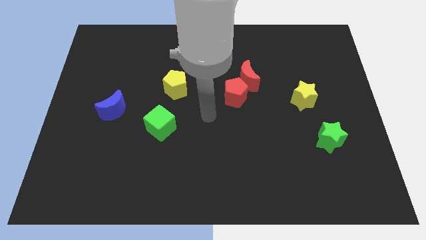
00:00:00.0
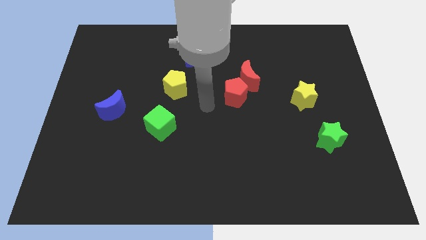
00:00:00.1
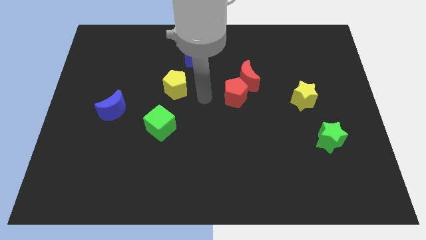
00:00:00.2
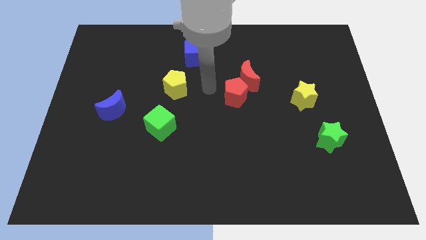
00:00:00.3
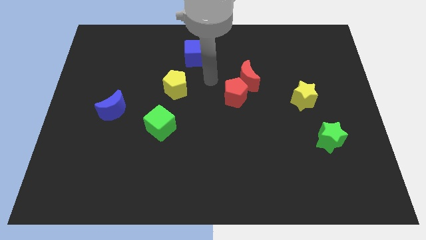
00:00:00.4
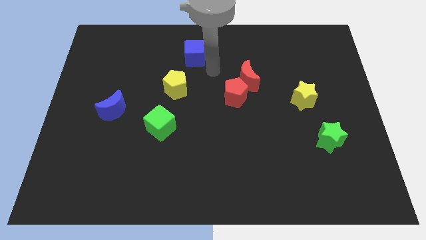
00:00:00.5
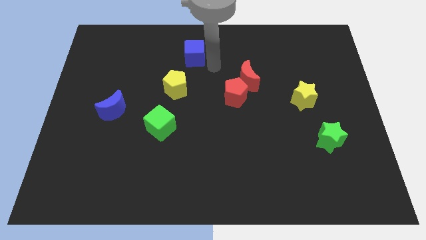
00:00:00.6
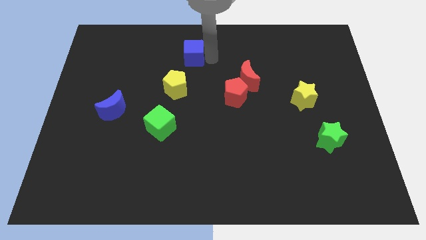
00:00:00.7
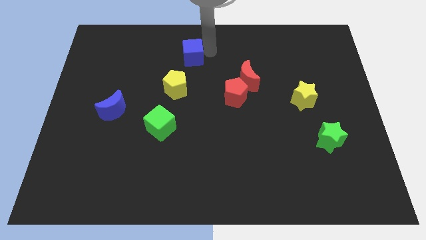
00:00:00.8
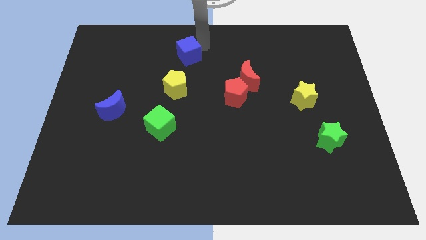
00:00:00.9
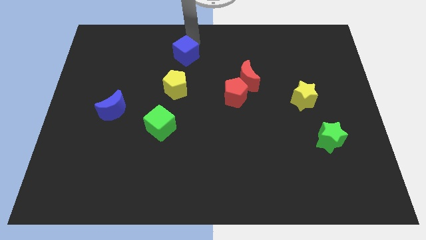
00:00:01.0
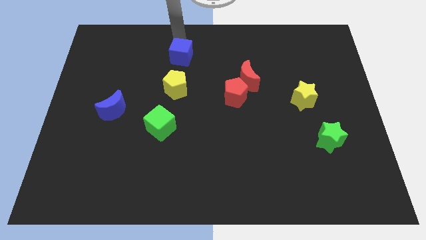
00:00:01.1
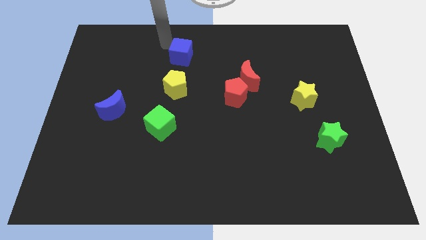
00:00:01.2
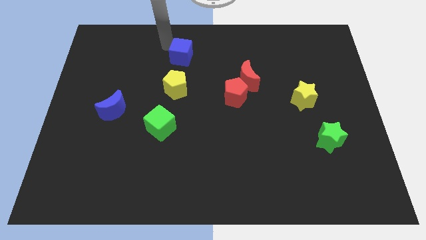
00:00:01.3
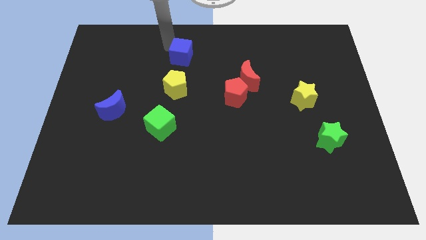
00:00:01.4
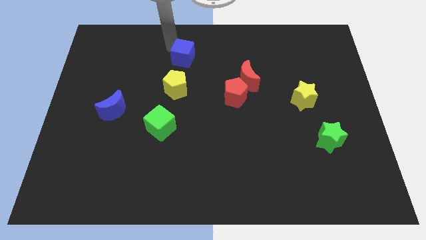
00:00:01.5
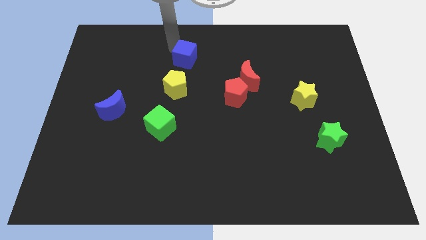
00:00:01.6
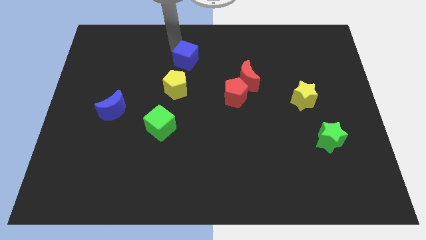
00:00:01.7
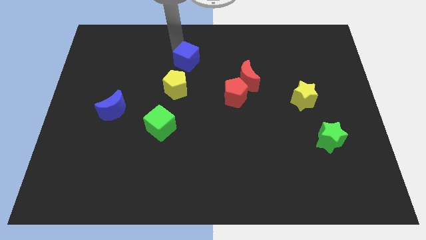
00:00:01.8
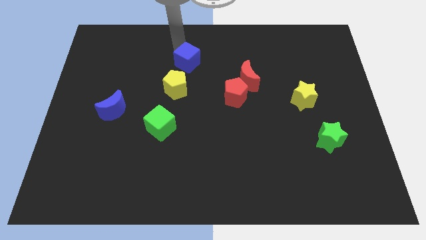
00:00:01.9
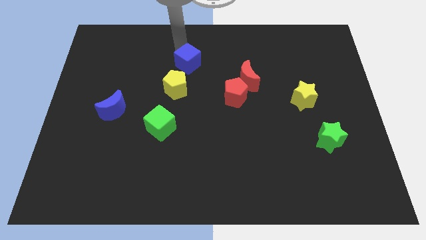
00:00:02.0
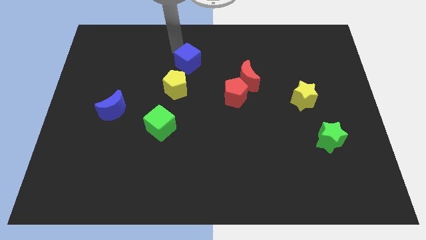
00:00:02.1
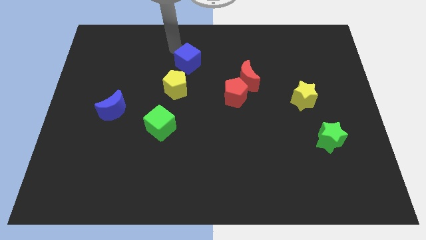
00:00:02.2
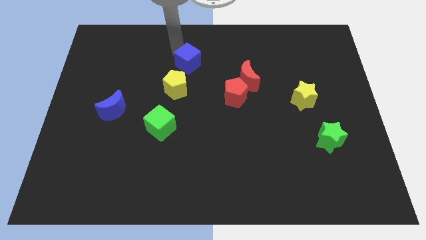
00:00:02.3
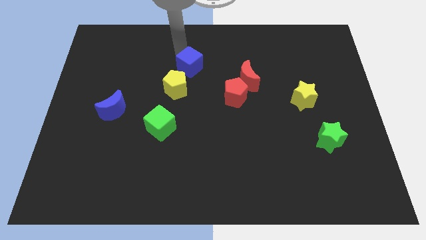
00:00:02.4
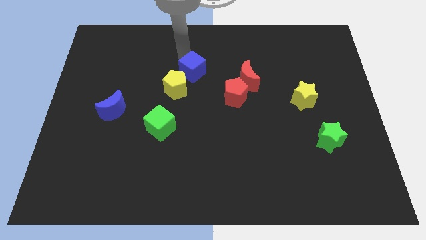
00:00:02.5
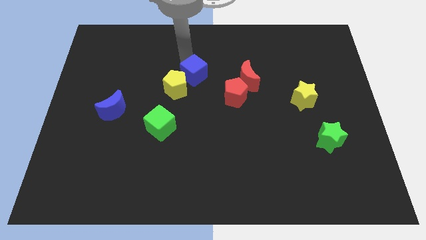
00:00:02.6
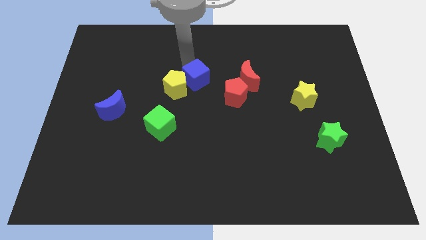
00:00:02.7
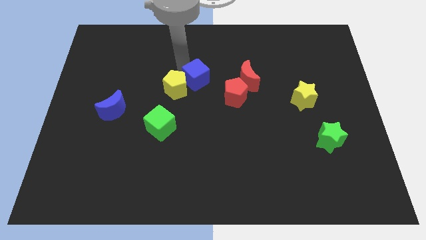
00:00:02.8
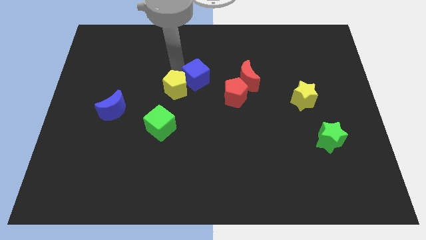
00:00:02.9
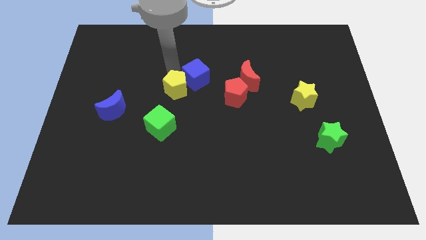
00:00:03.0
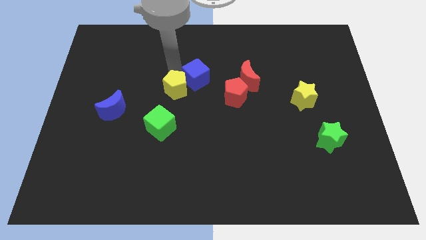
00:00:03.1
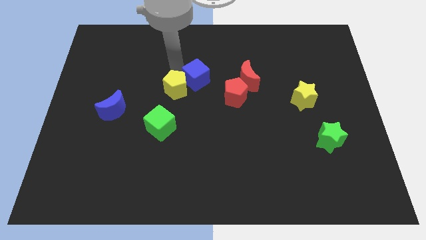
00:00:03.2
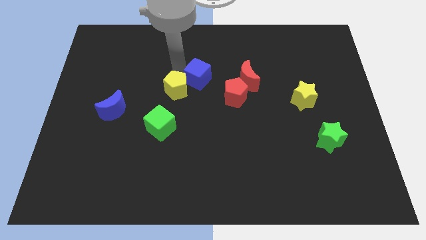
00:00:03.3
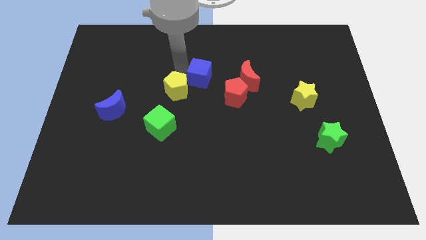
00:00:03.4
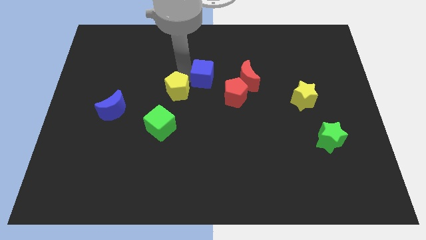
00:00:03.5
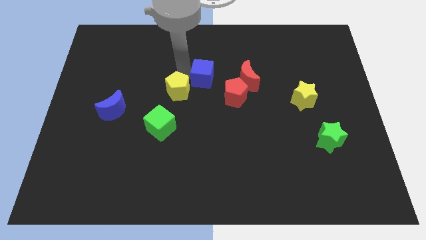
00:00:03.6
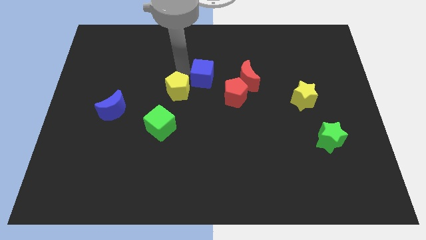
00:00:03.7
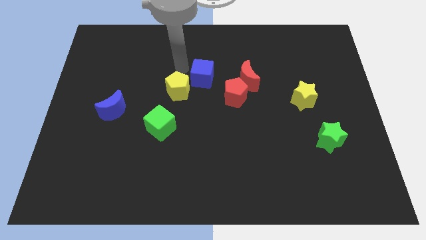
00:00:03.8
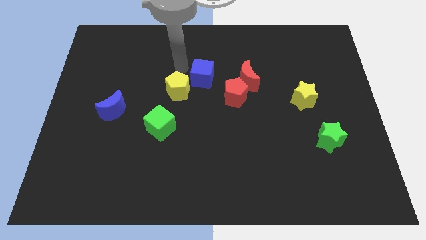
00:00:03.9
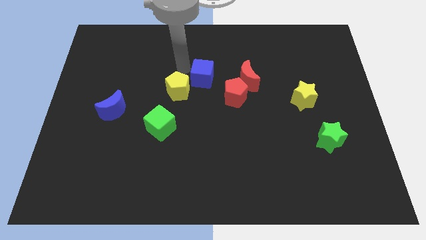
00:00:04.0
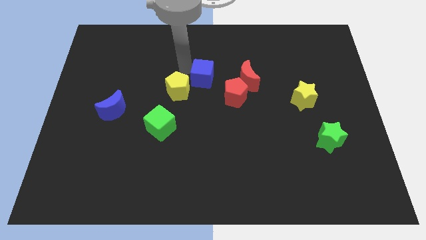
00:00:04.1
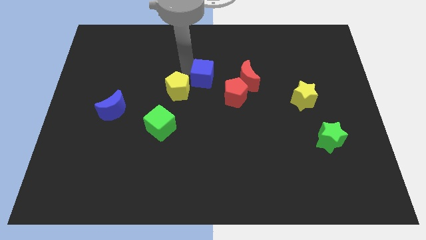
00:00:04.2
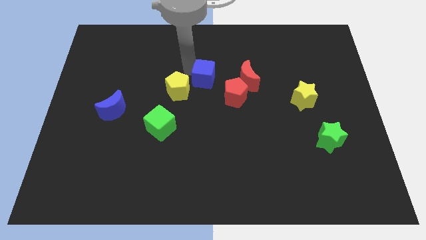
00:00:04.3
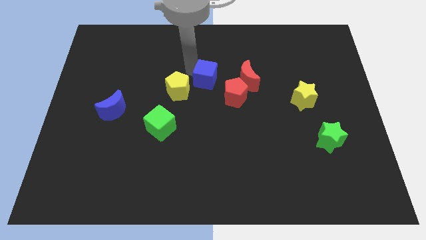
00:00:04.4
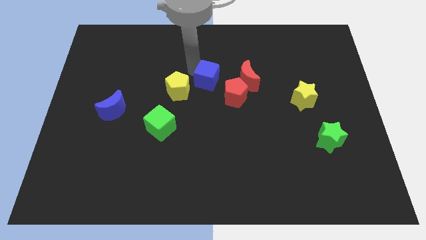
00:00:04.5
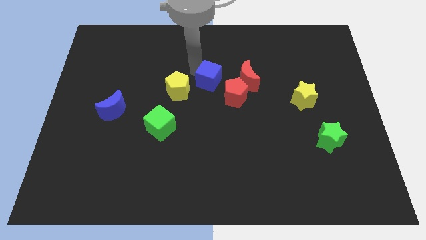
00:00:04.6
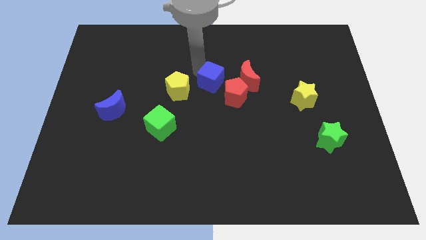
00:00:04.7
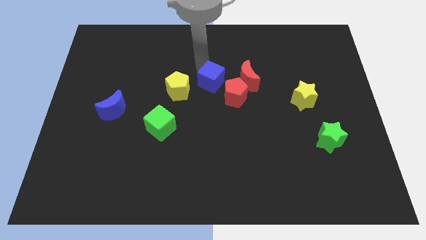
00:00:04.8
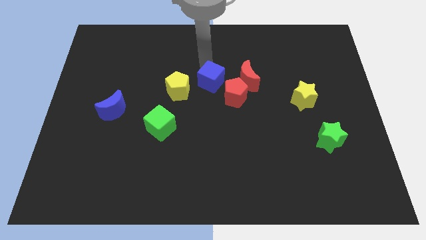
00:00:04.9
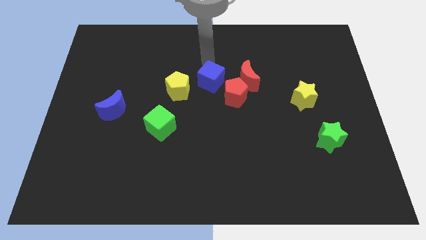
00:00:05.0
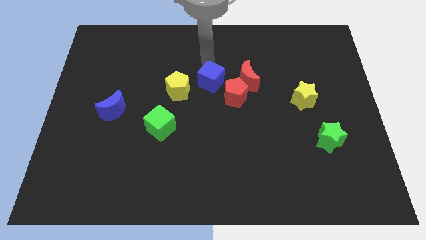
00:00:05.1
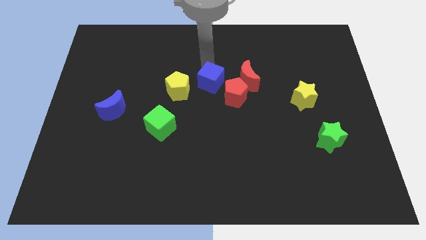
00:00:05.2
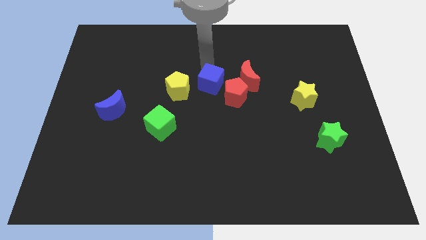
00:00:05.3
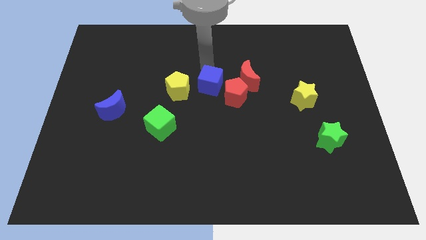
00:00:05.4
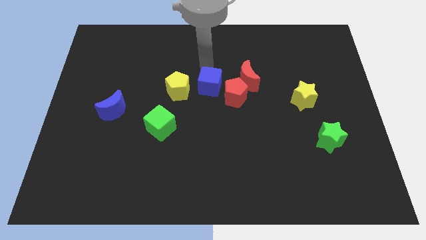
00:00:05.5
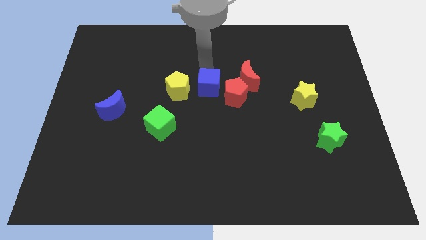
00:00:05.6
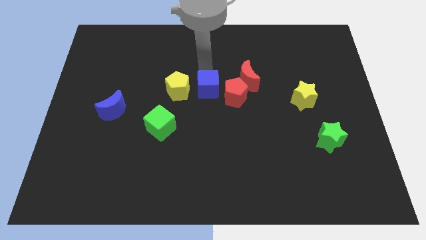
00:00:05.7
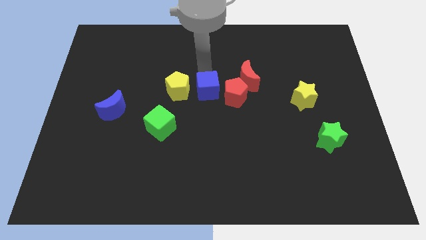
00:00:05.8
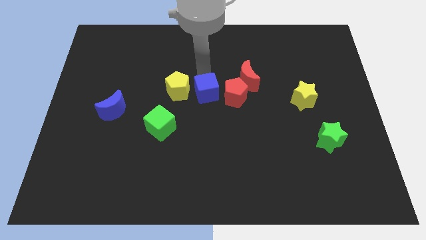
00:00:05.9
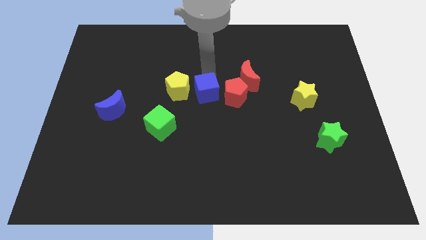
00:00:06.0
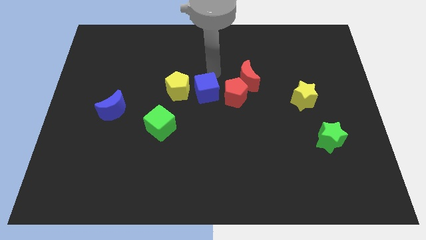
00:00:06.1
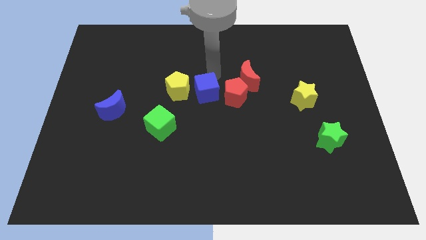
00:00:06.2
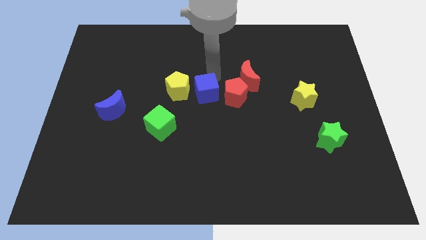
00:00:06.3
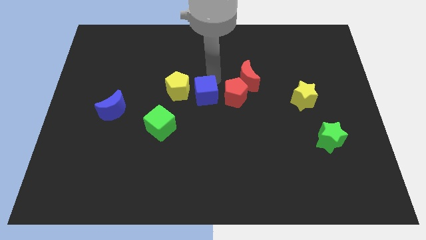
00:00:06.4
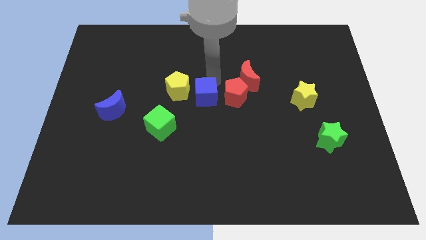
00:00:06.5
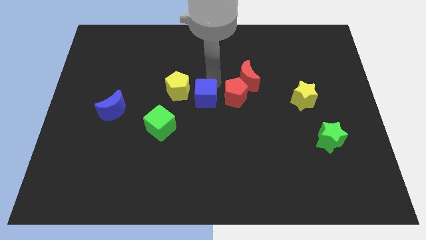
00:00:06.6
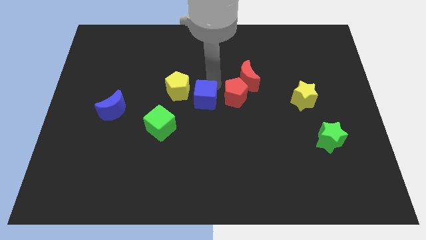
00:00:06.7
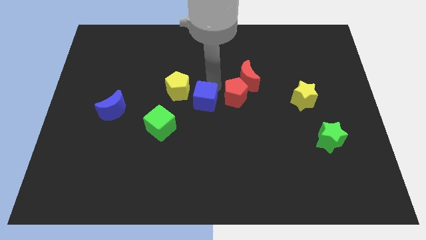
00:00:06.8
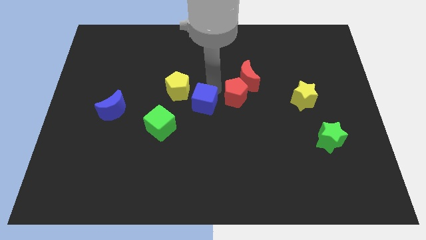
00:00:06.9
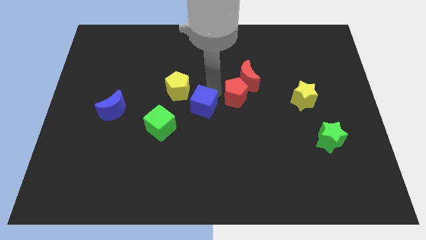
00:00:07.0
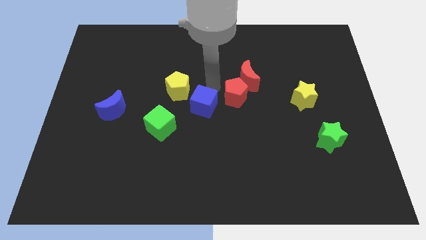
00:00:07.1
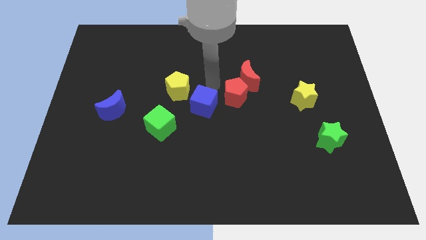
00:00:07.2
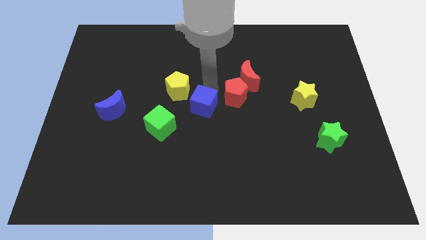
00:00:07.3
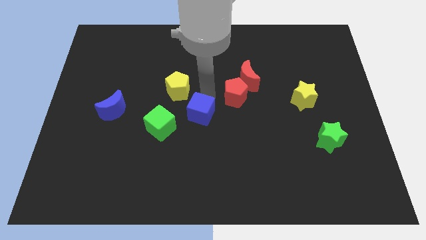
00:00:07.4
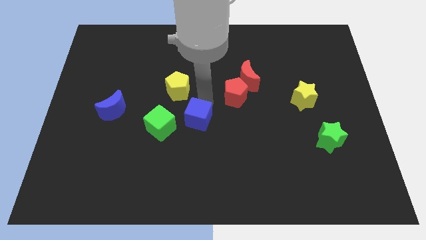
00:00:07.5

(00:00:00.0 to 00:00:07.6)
slide the blue cube below the yellow pentagon
